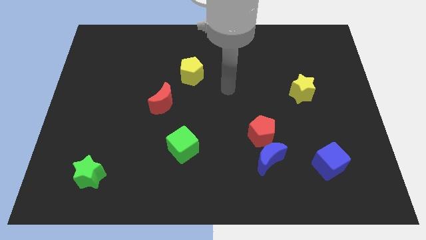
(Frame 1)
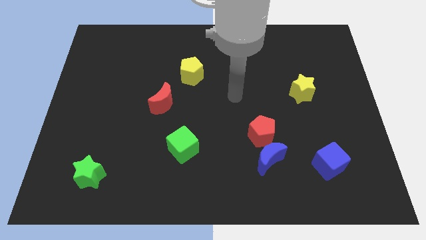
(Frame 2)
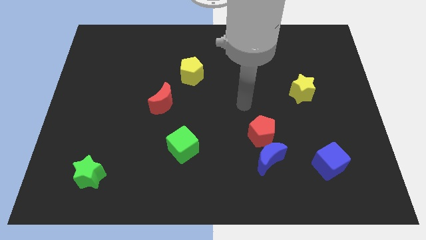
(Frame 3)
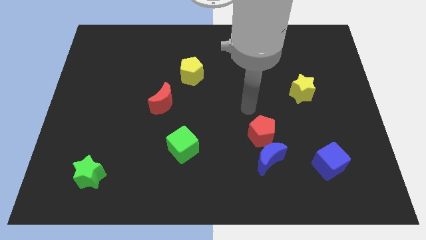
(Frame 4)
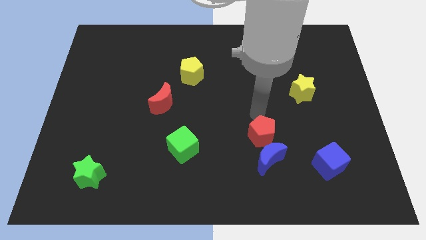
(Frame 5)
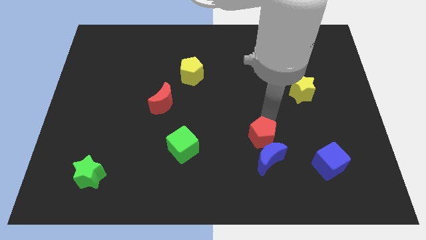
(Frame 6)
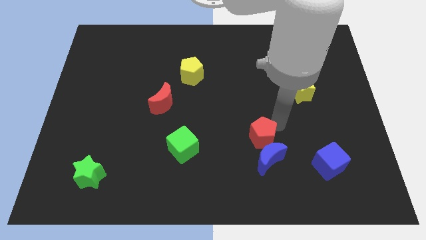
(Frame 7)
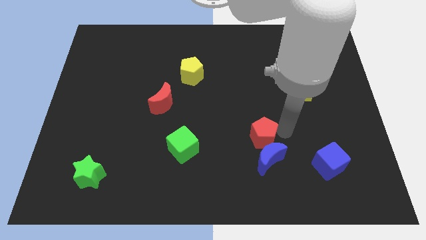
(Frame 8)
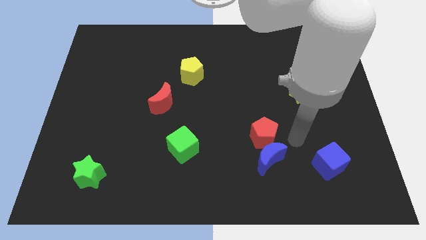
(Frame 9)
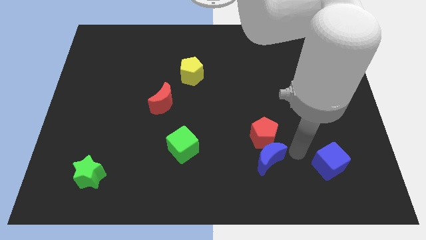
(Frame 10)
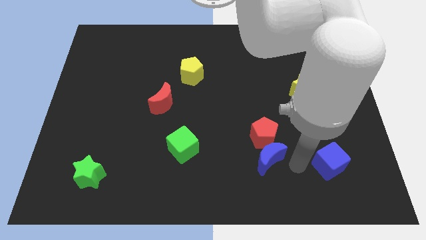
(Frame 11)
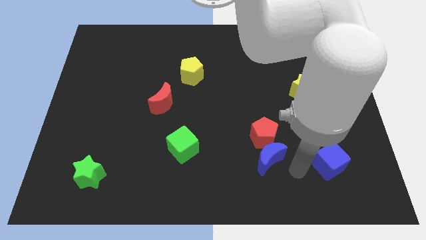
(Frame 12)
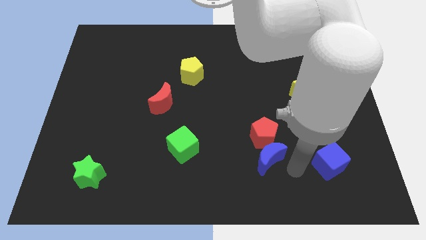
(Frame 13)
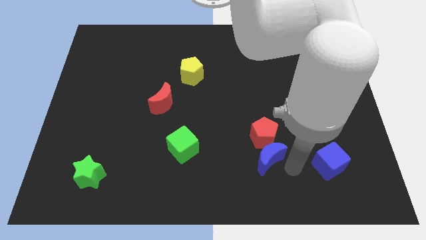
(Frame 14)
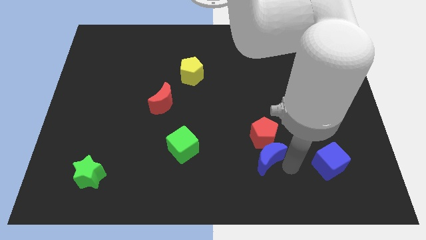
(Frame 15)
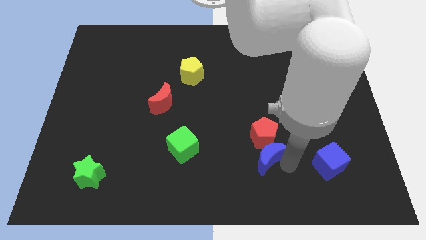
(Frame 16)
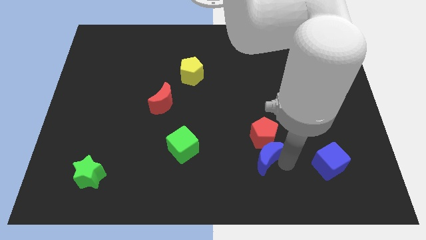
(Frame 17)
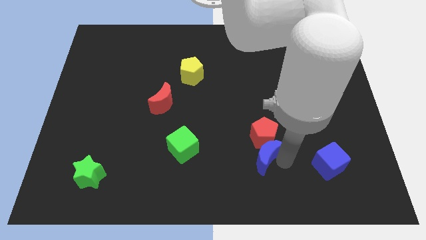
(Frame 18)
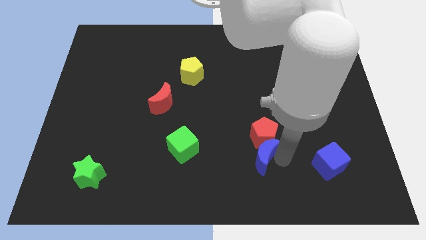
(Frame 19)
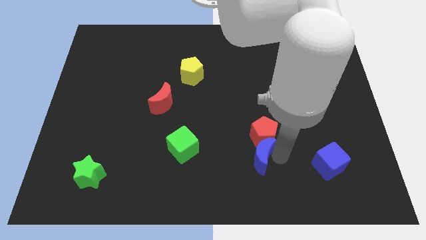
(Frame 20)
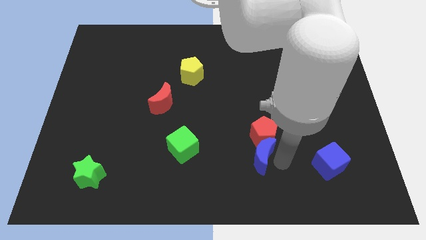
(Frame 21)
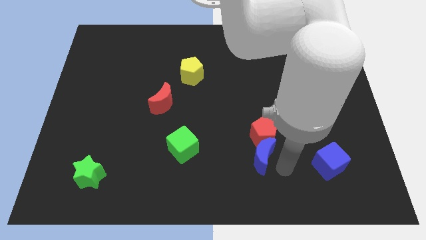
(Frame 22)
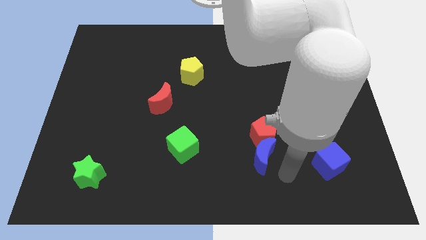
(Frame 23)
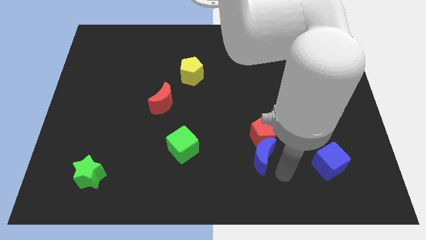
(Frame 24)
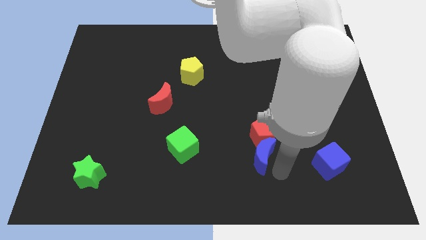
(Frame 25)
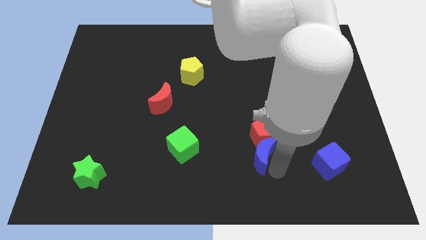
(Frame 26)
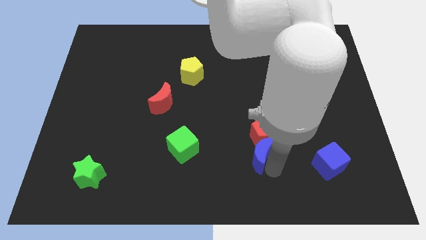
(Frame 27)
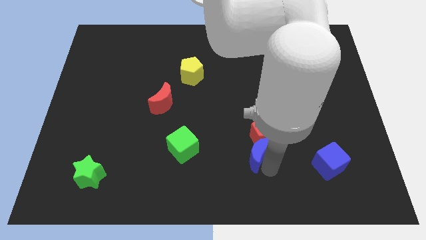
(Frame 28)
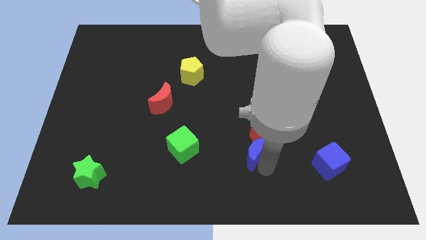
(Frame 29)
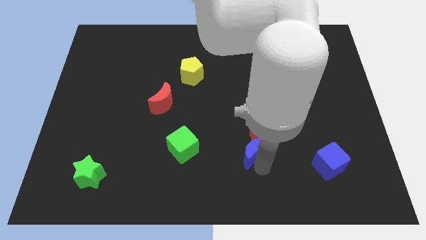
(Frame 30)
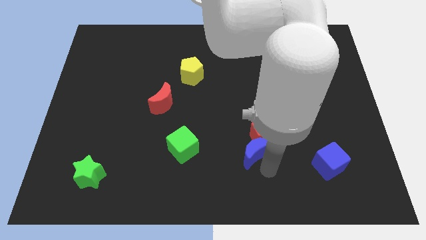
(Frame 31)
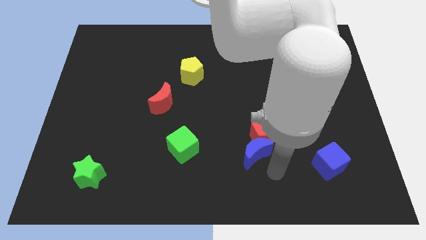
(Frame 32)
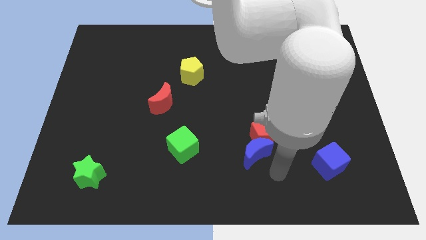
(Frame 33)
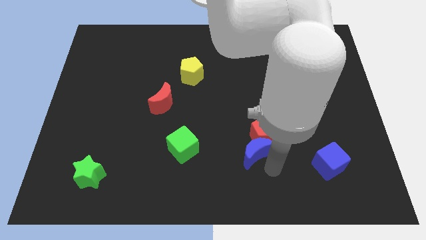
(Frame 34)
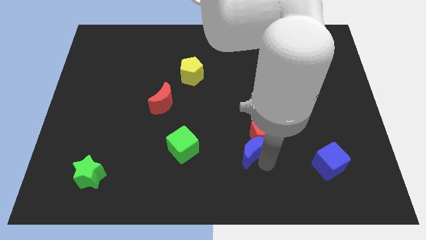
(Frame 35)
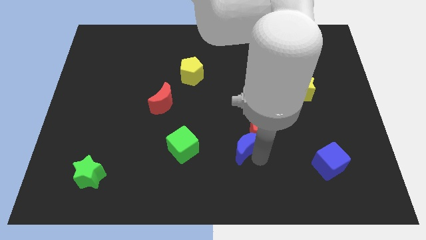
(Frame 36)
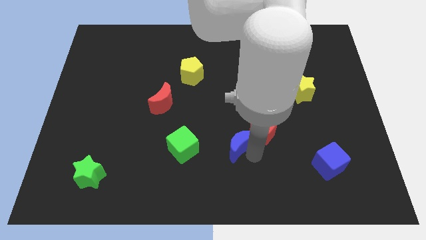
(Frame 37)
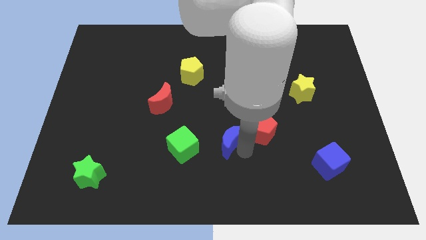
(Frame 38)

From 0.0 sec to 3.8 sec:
push the blue moon up and left diagonally a little

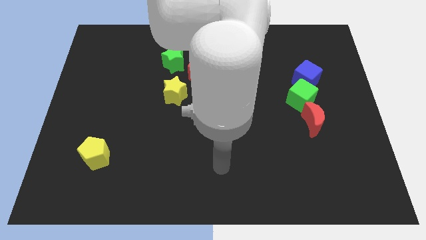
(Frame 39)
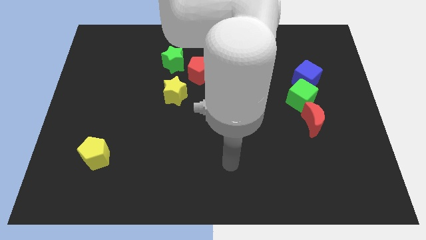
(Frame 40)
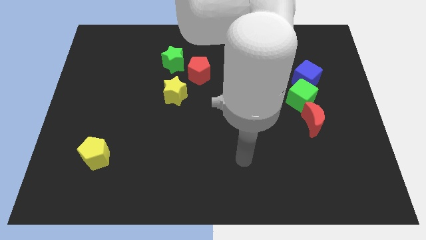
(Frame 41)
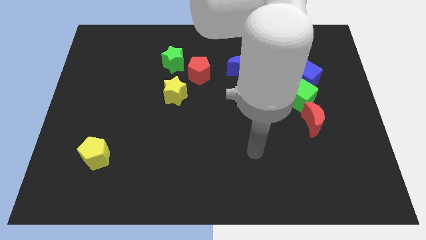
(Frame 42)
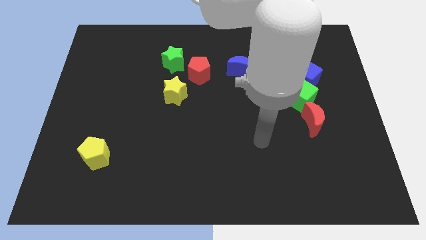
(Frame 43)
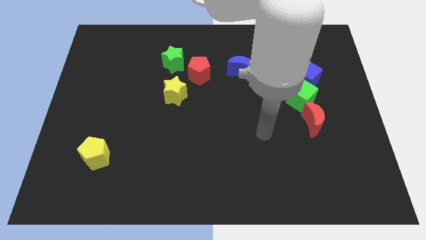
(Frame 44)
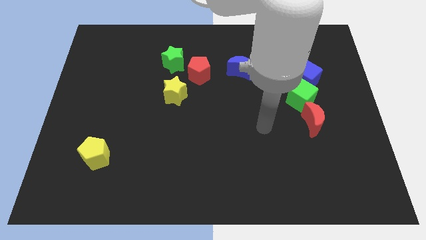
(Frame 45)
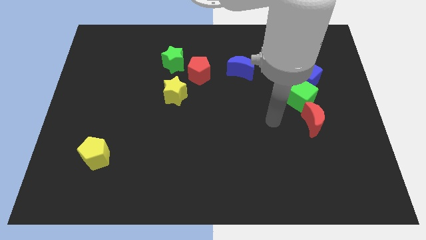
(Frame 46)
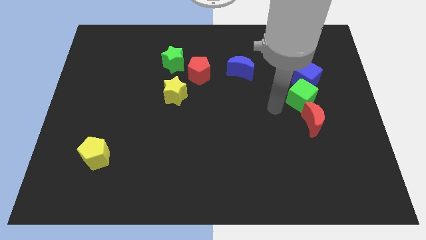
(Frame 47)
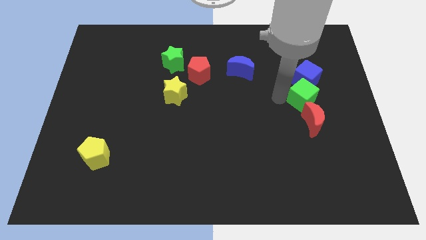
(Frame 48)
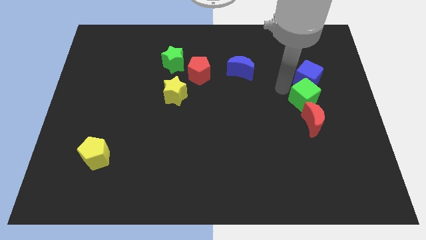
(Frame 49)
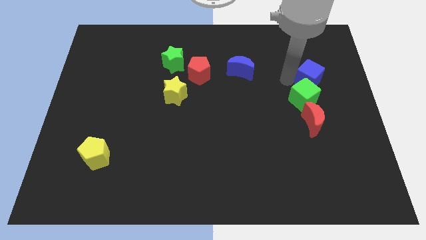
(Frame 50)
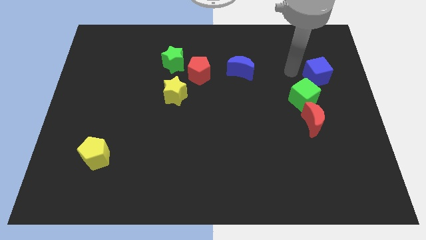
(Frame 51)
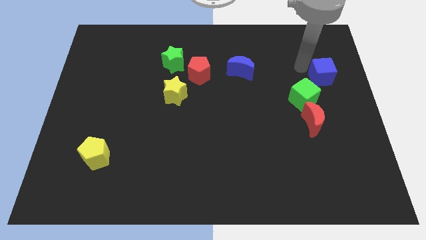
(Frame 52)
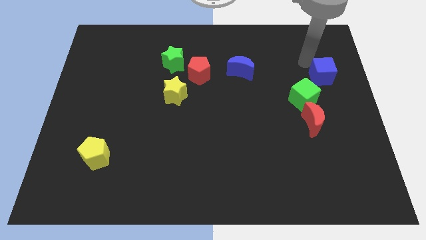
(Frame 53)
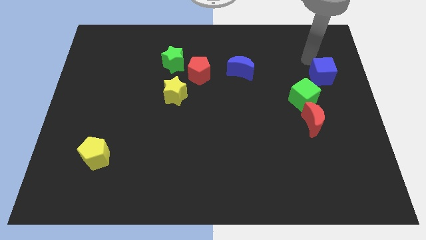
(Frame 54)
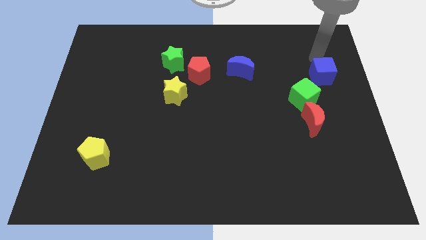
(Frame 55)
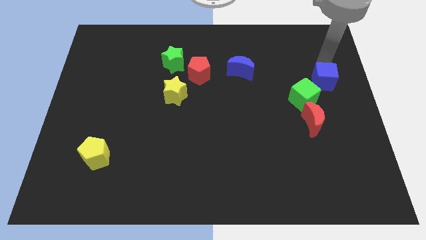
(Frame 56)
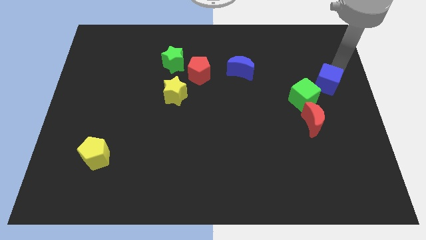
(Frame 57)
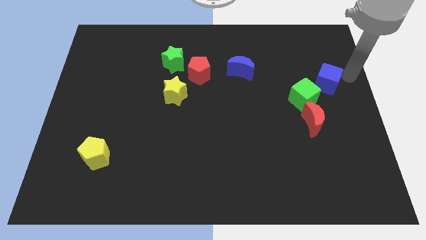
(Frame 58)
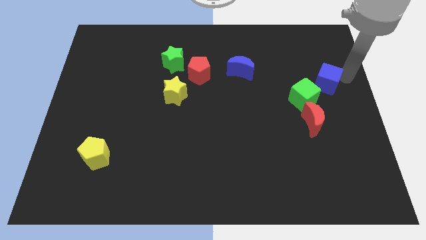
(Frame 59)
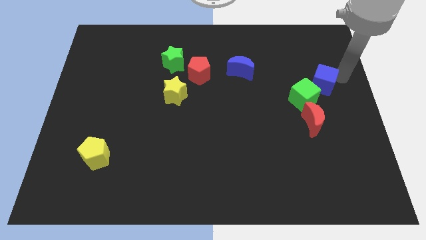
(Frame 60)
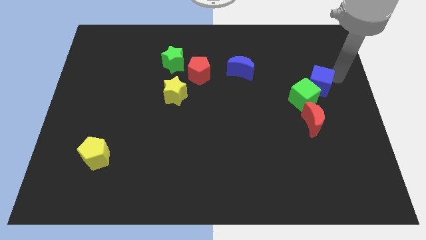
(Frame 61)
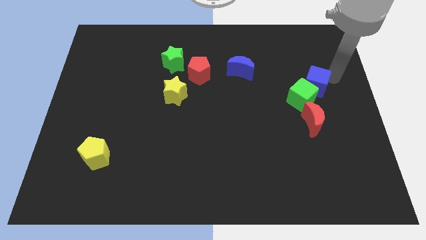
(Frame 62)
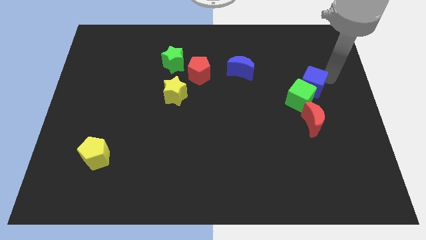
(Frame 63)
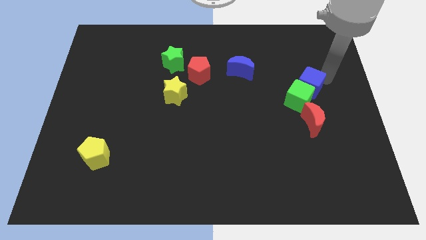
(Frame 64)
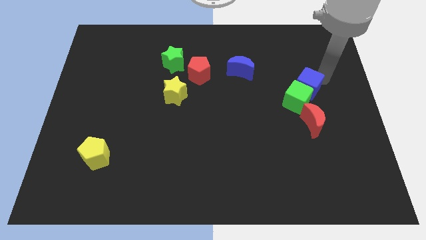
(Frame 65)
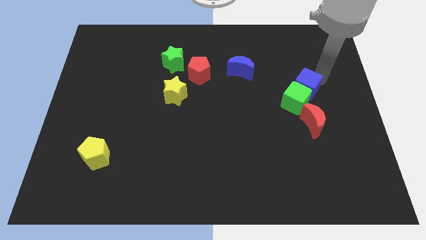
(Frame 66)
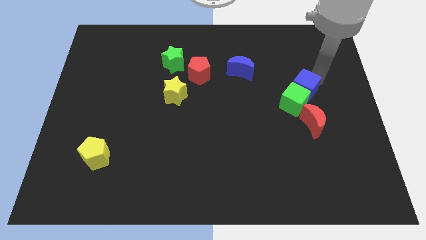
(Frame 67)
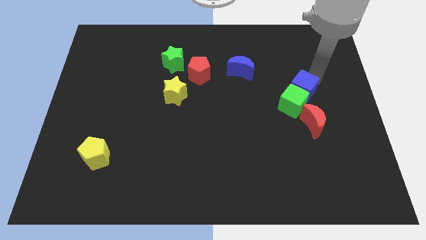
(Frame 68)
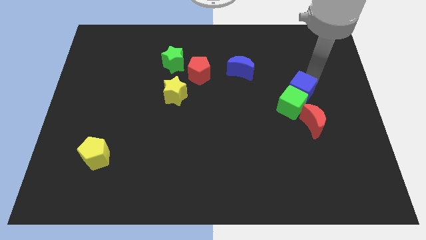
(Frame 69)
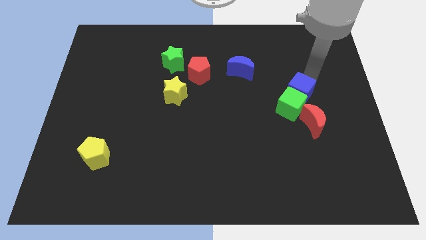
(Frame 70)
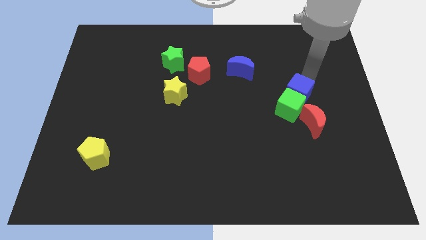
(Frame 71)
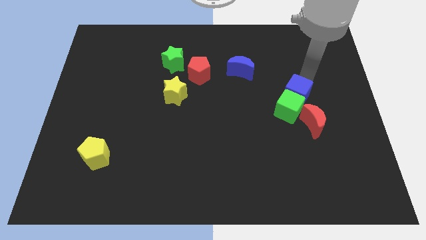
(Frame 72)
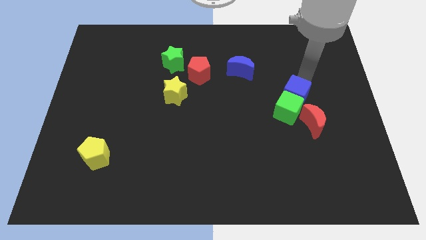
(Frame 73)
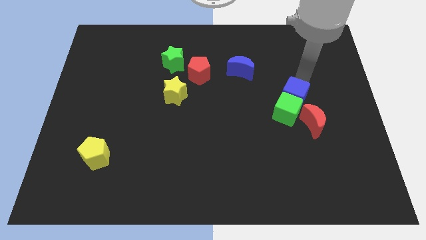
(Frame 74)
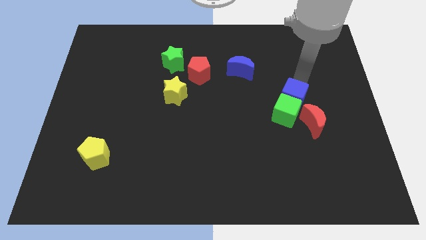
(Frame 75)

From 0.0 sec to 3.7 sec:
slightly move the blue cube down and to the left

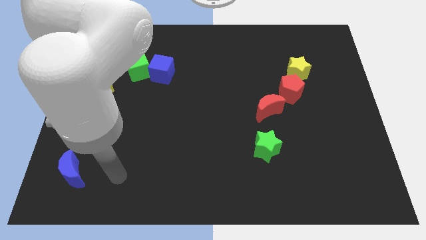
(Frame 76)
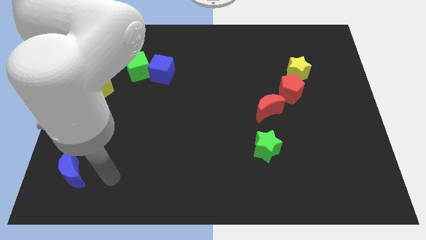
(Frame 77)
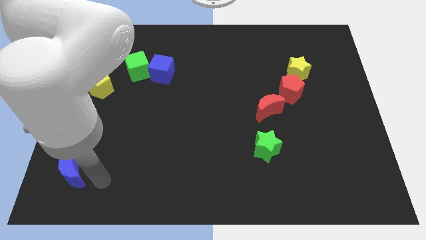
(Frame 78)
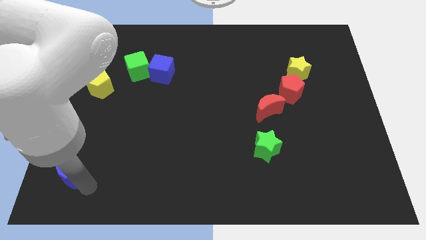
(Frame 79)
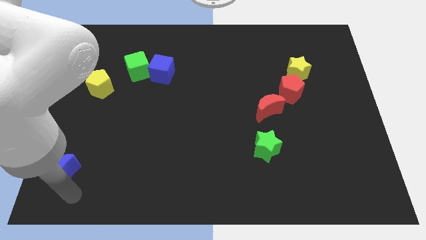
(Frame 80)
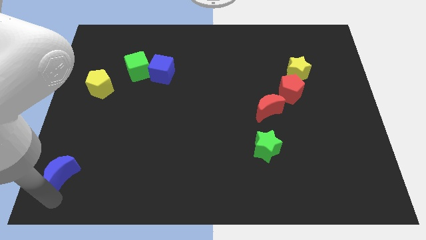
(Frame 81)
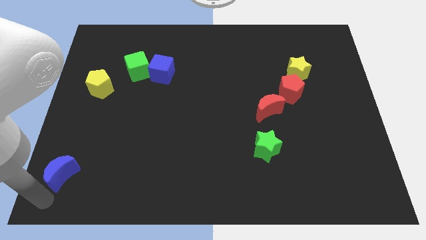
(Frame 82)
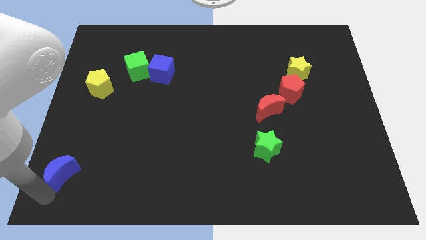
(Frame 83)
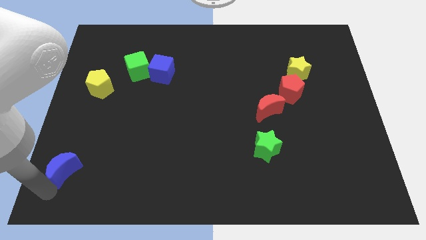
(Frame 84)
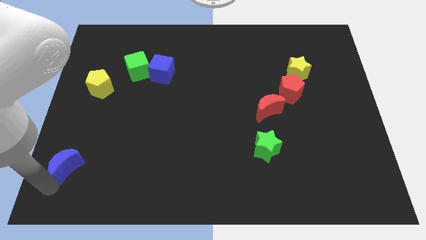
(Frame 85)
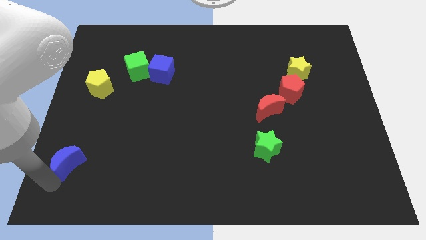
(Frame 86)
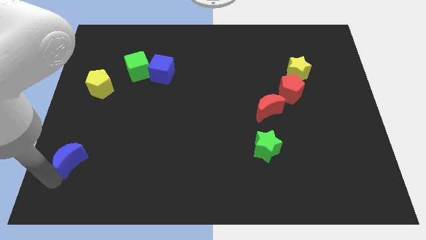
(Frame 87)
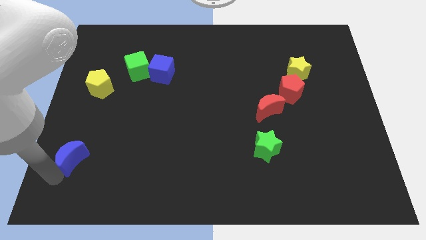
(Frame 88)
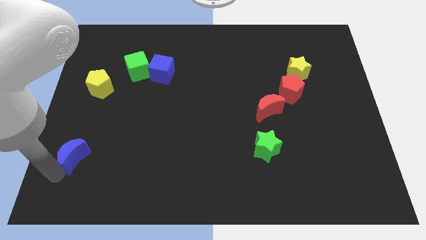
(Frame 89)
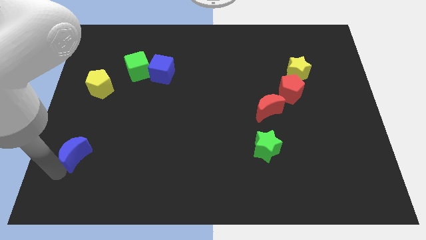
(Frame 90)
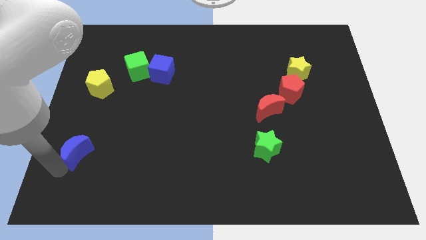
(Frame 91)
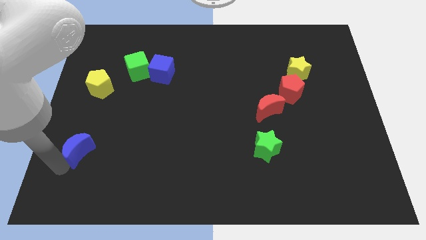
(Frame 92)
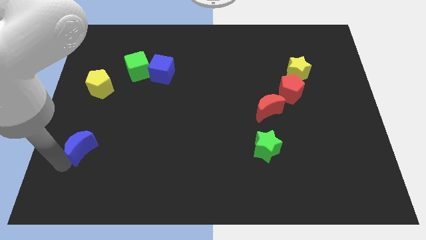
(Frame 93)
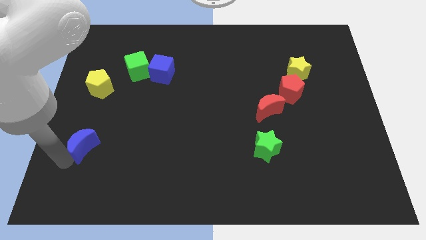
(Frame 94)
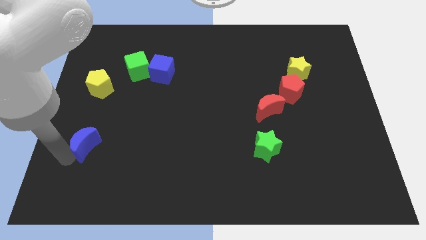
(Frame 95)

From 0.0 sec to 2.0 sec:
push the blue moon up slightly
